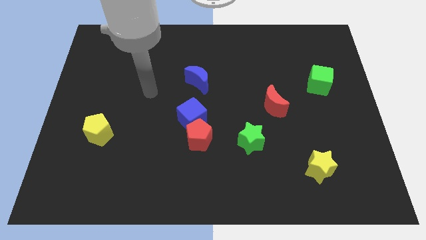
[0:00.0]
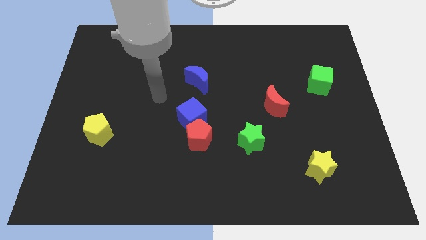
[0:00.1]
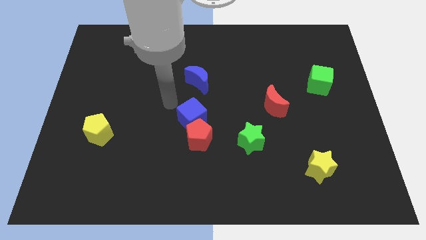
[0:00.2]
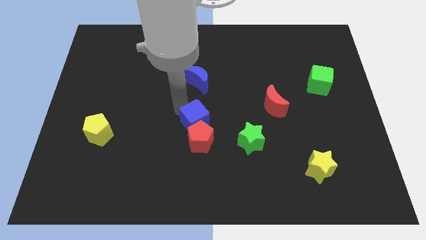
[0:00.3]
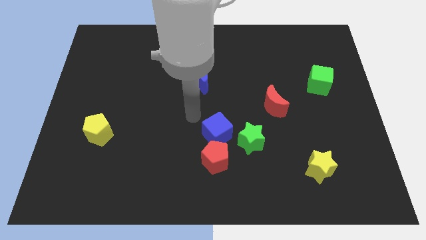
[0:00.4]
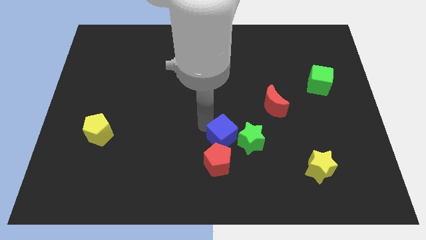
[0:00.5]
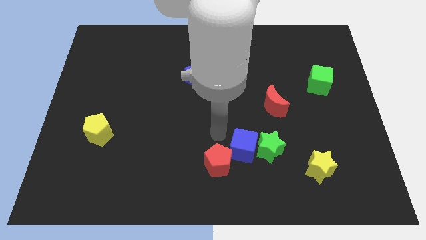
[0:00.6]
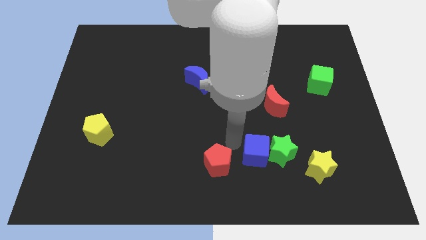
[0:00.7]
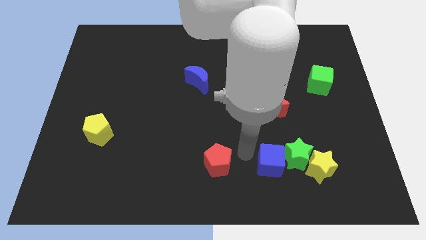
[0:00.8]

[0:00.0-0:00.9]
separate the red pentagon from the blue cube

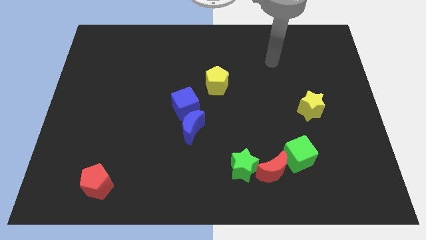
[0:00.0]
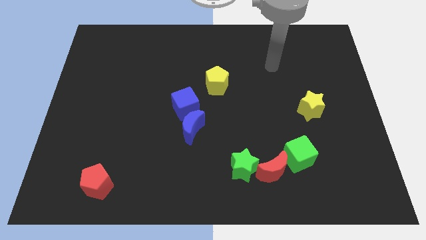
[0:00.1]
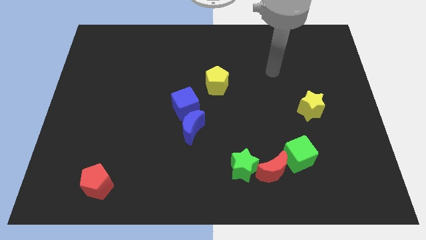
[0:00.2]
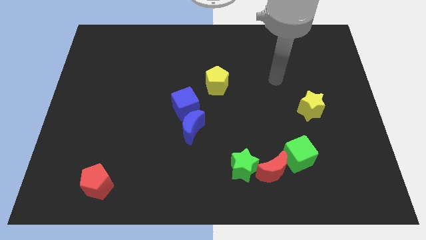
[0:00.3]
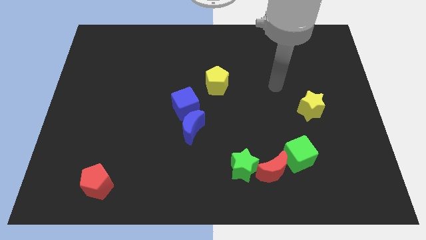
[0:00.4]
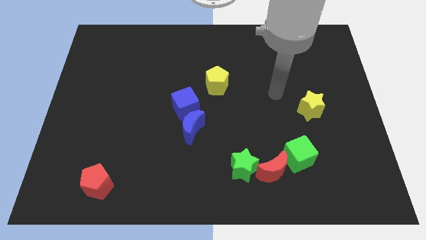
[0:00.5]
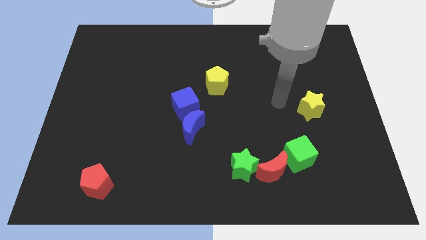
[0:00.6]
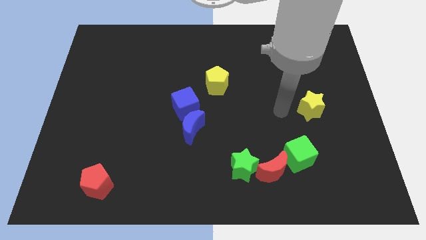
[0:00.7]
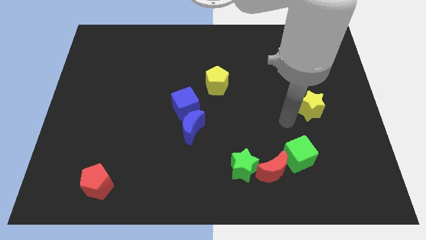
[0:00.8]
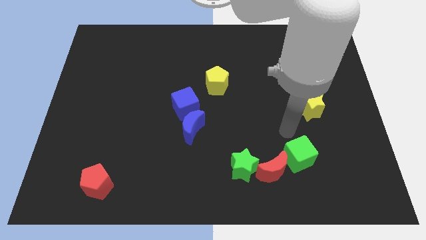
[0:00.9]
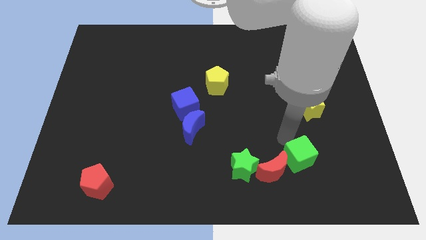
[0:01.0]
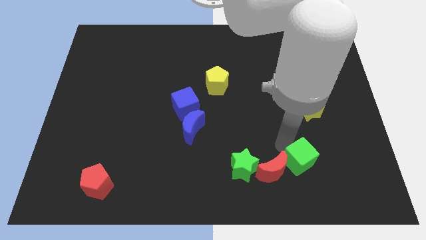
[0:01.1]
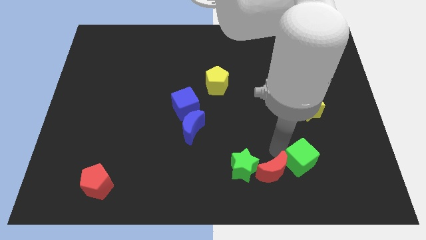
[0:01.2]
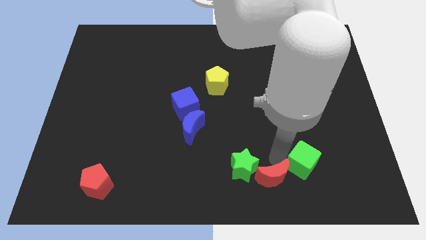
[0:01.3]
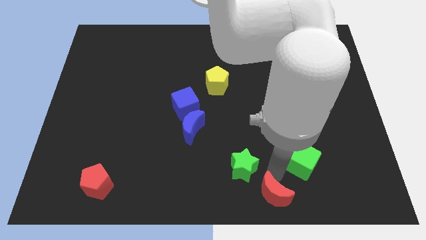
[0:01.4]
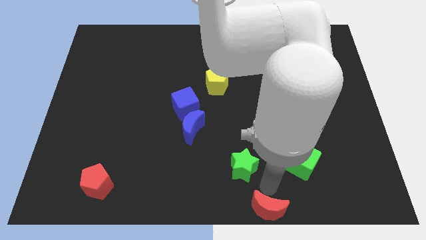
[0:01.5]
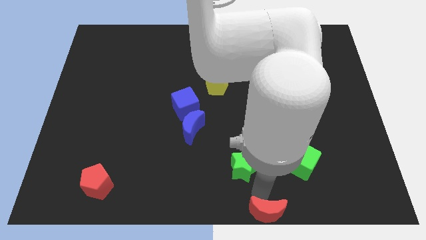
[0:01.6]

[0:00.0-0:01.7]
move the green star away from the red moon

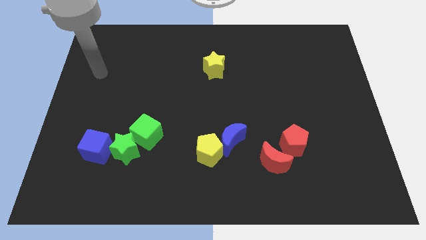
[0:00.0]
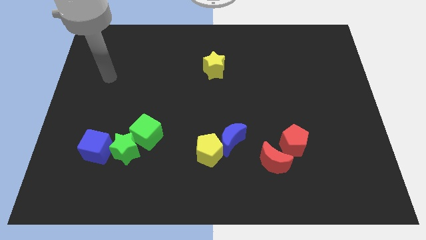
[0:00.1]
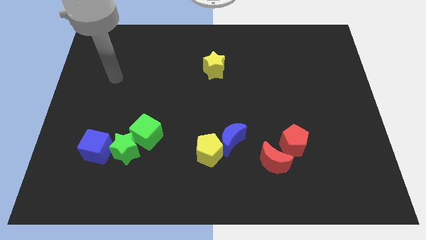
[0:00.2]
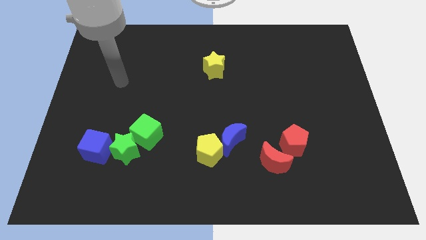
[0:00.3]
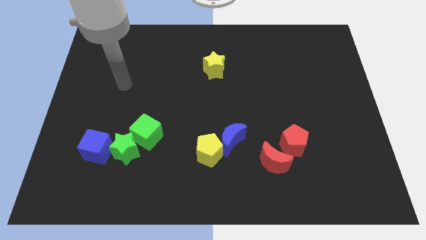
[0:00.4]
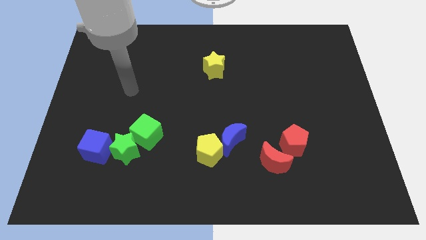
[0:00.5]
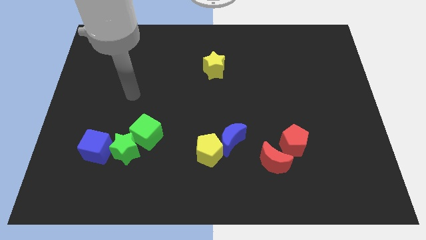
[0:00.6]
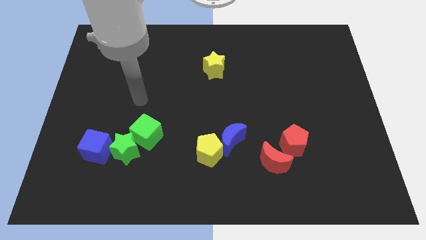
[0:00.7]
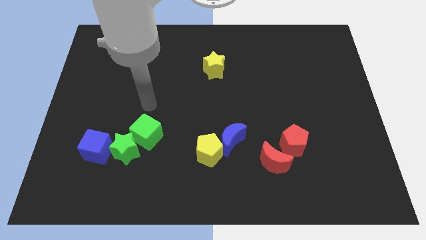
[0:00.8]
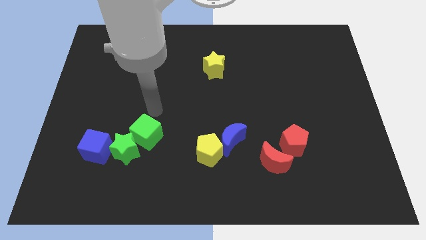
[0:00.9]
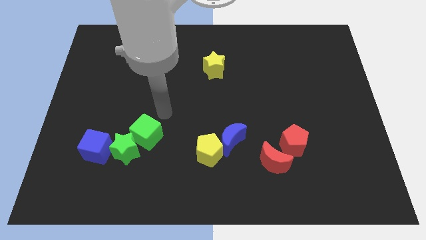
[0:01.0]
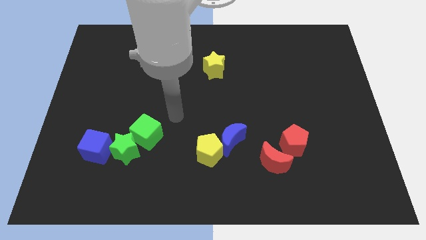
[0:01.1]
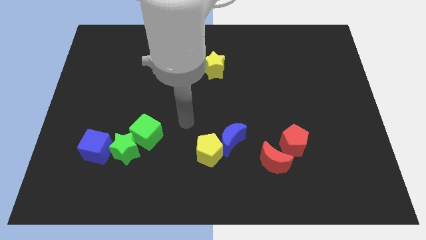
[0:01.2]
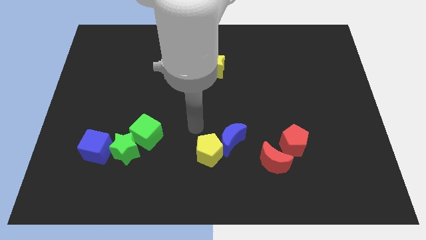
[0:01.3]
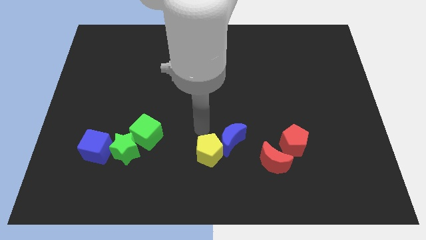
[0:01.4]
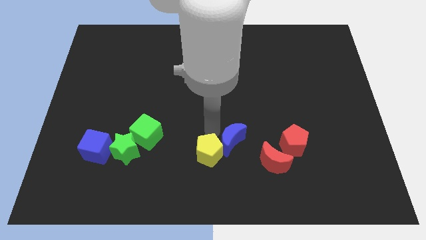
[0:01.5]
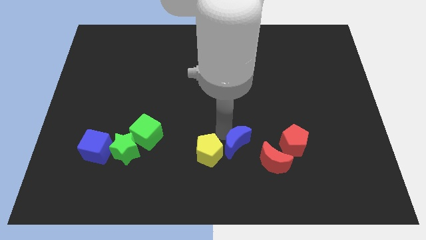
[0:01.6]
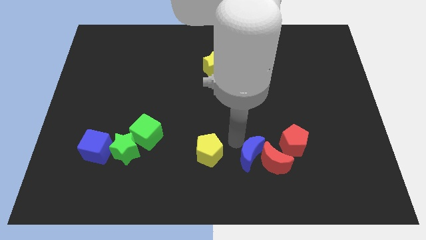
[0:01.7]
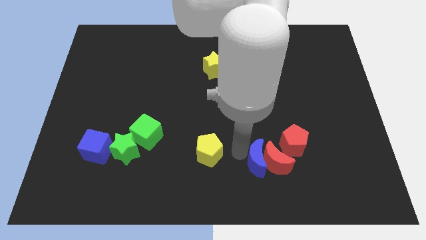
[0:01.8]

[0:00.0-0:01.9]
separate the yellow pentagon from the blue moon

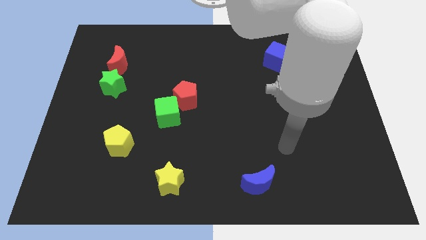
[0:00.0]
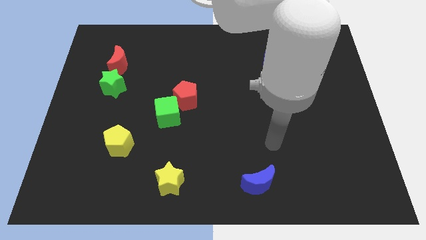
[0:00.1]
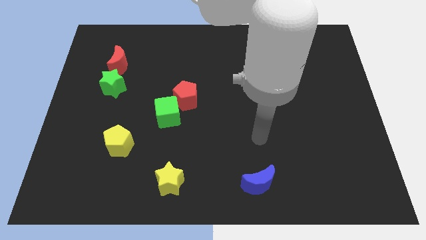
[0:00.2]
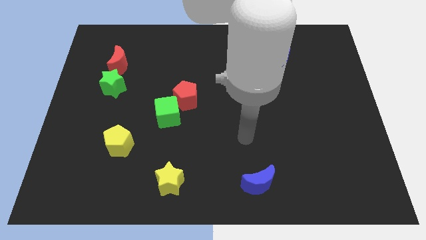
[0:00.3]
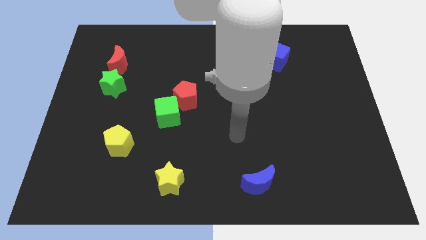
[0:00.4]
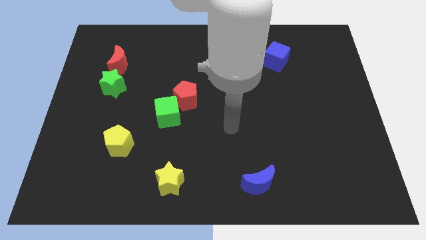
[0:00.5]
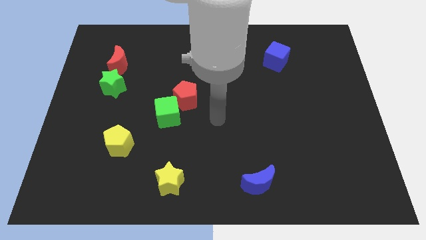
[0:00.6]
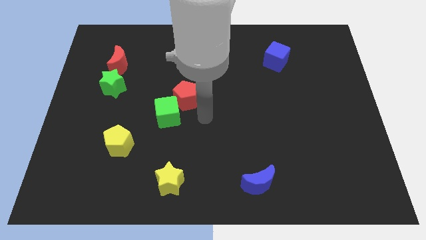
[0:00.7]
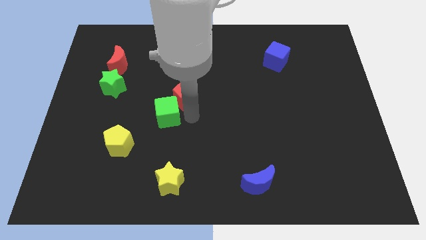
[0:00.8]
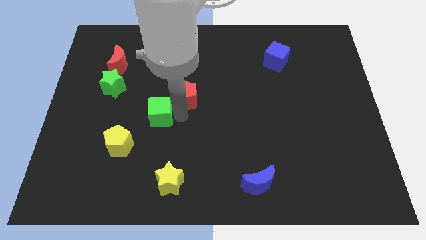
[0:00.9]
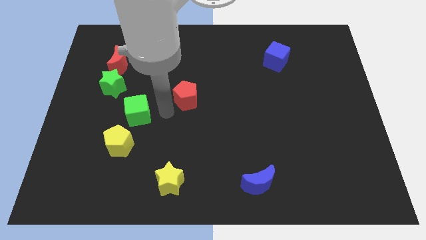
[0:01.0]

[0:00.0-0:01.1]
separate the red pentagon from the green cube

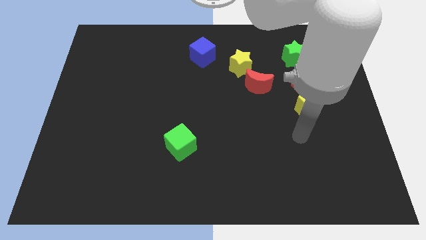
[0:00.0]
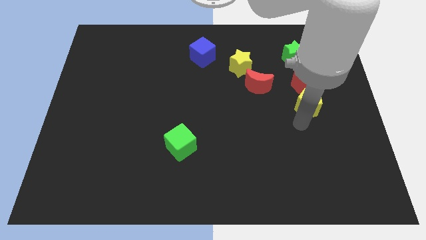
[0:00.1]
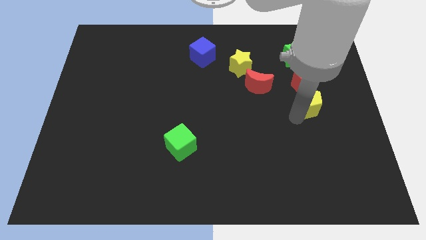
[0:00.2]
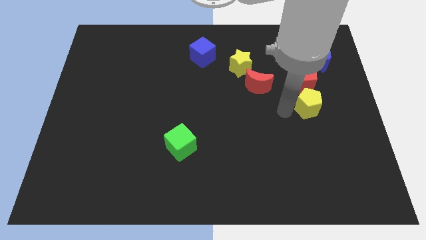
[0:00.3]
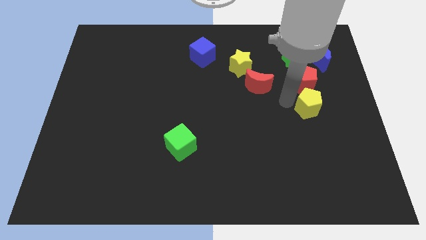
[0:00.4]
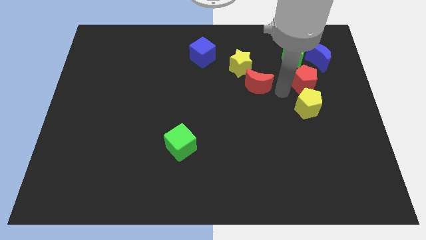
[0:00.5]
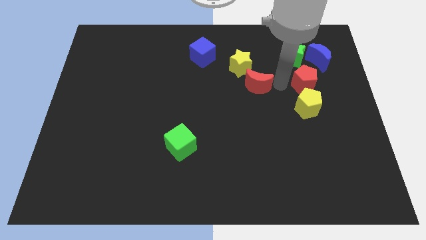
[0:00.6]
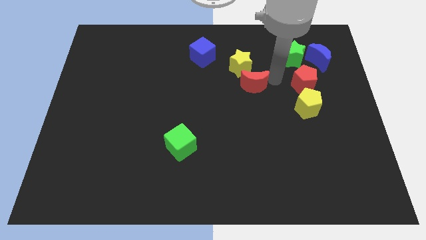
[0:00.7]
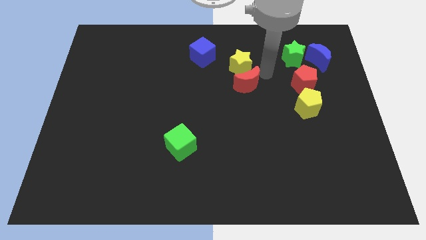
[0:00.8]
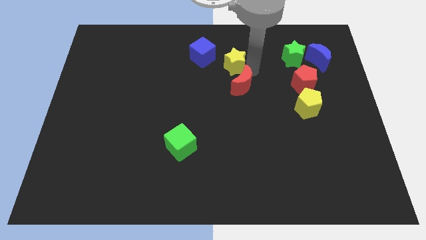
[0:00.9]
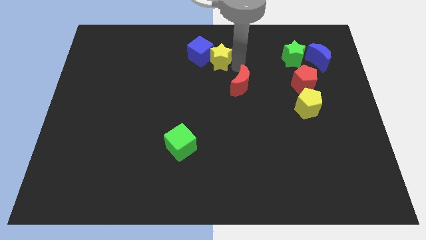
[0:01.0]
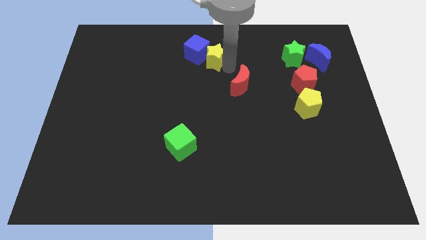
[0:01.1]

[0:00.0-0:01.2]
separate the red moon from the yellow star

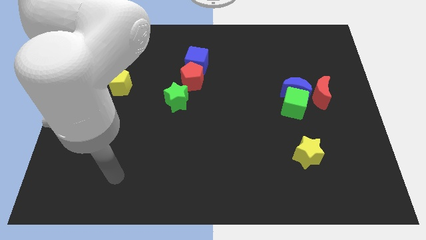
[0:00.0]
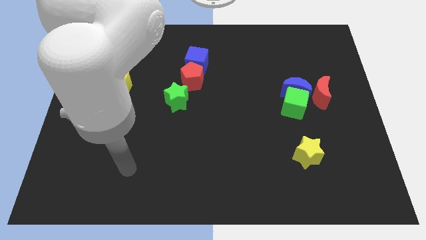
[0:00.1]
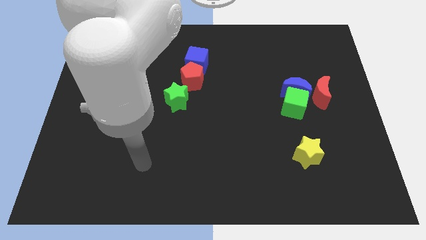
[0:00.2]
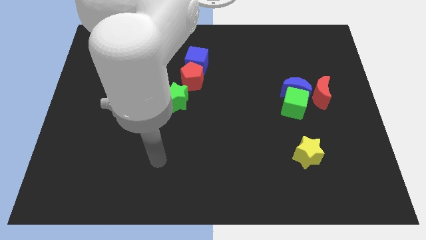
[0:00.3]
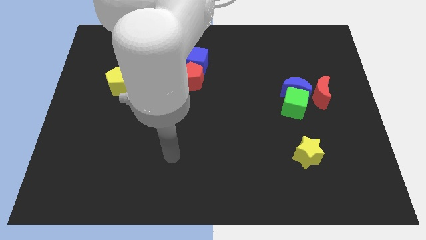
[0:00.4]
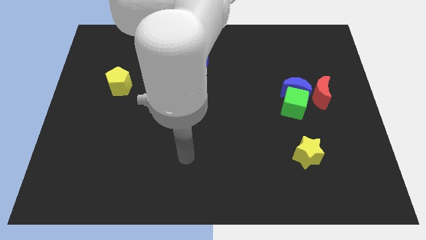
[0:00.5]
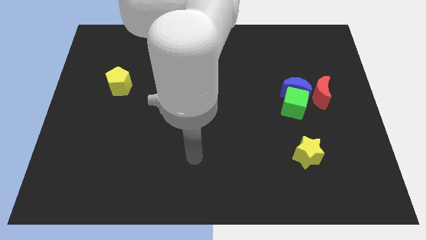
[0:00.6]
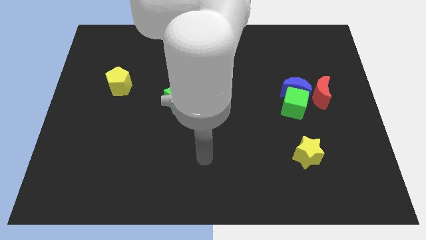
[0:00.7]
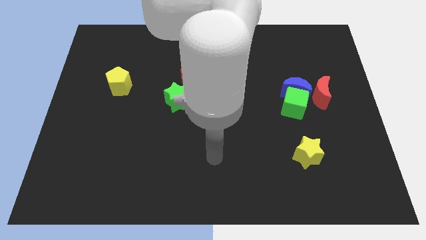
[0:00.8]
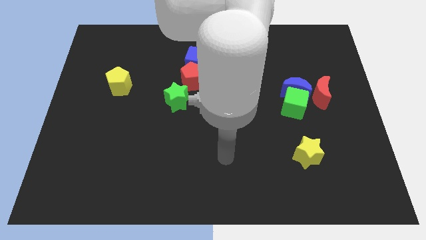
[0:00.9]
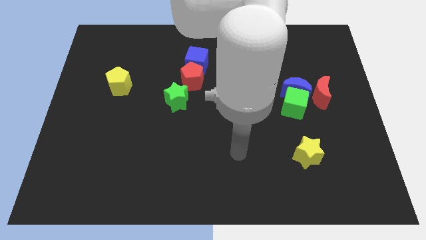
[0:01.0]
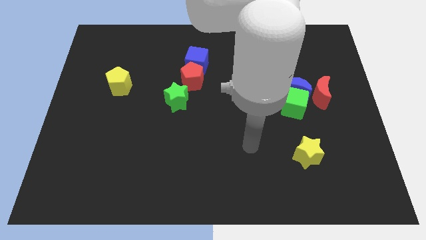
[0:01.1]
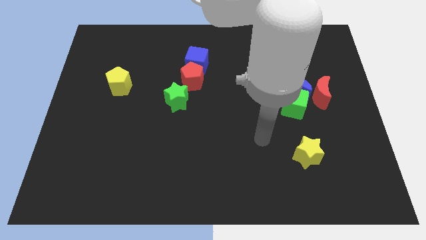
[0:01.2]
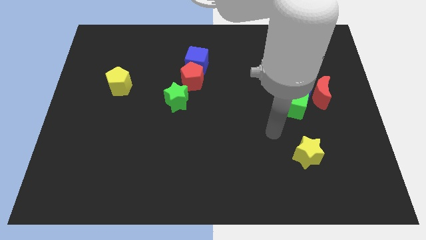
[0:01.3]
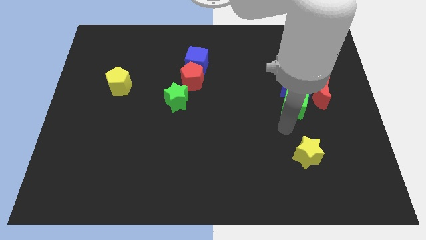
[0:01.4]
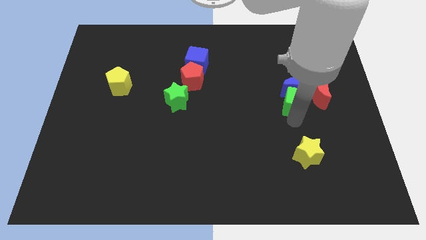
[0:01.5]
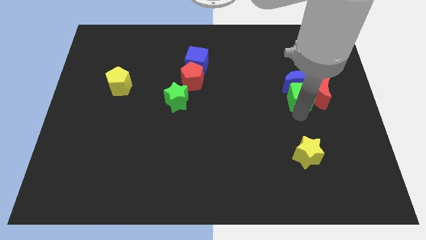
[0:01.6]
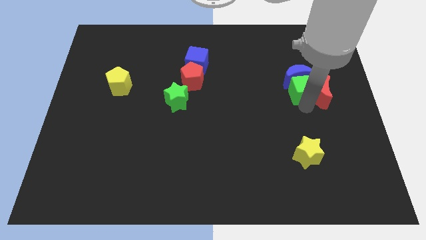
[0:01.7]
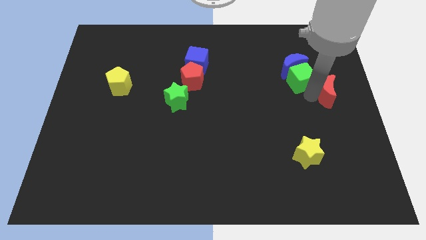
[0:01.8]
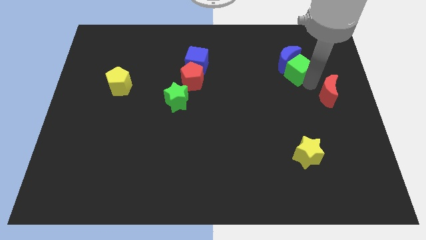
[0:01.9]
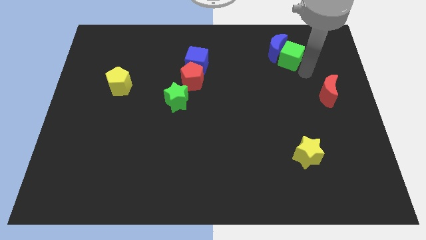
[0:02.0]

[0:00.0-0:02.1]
separate the blue moon from the green cube and red moon

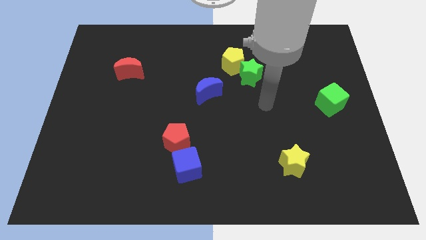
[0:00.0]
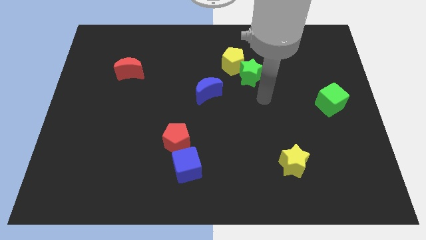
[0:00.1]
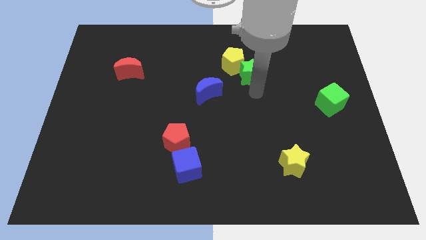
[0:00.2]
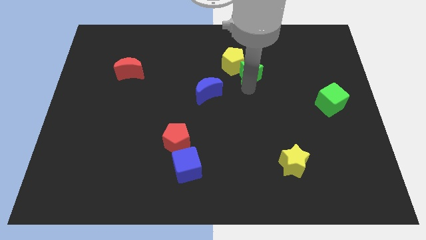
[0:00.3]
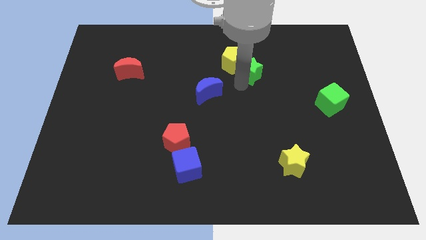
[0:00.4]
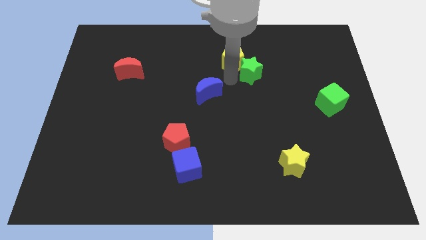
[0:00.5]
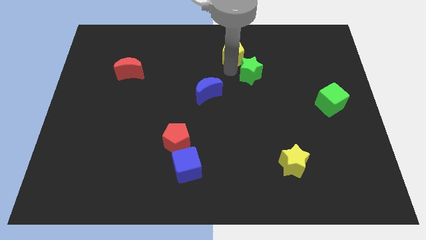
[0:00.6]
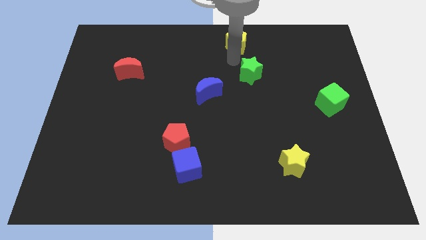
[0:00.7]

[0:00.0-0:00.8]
separate the green star from the yellow pentagon
